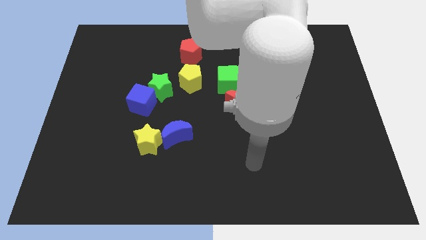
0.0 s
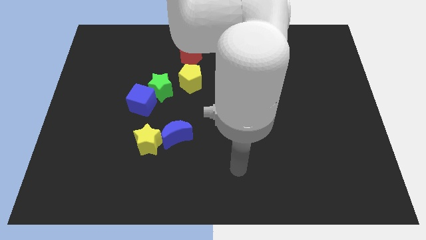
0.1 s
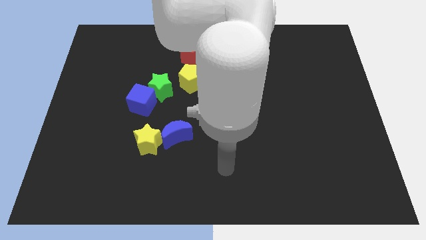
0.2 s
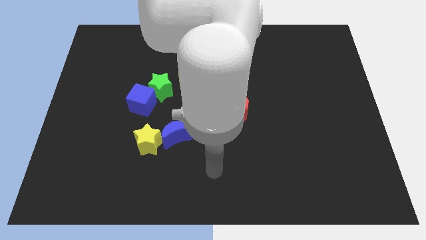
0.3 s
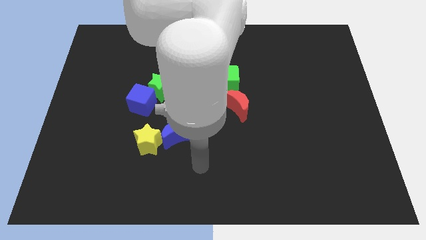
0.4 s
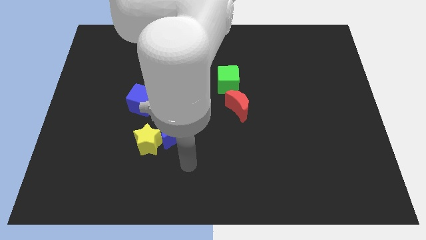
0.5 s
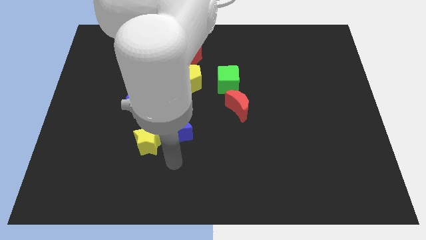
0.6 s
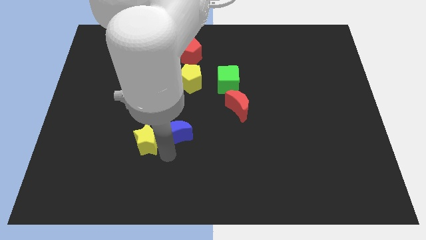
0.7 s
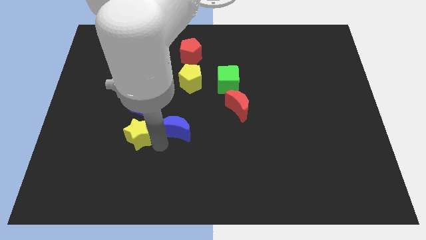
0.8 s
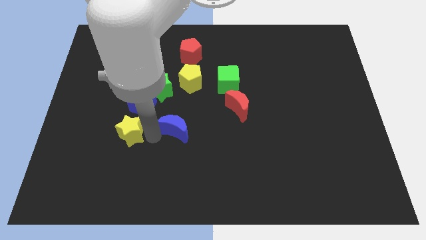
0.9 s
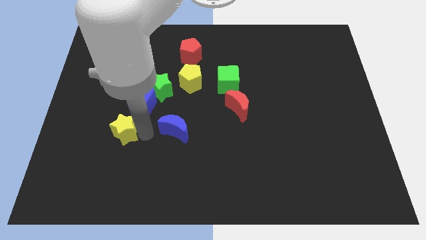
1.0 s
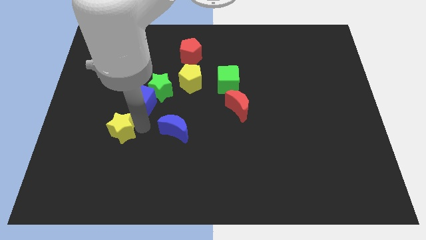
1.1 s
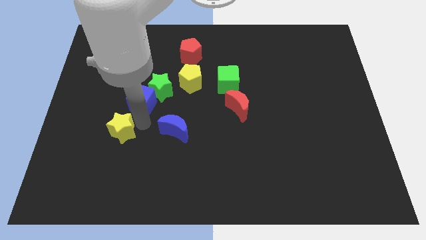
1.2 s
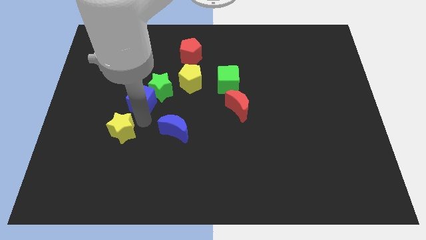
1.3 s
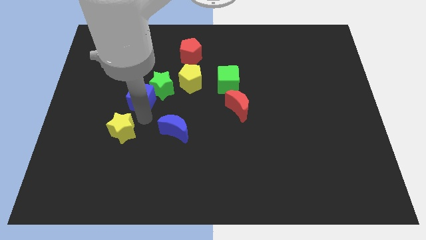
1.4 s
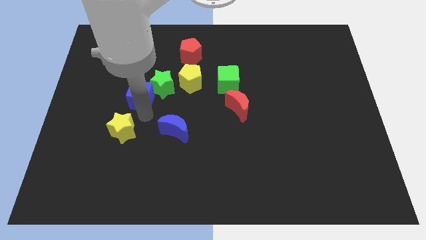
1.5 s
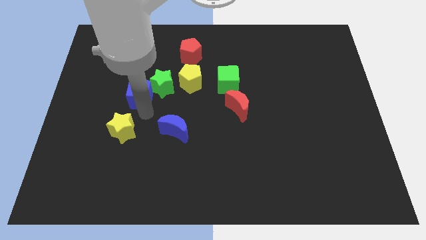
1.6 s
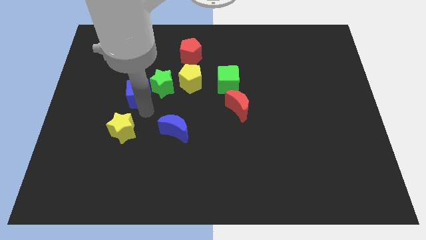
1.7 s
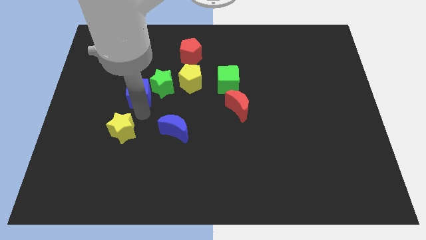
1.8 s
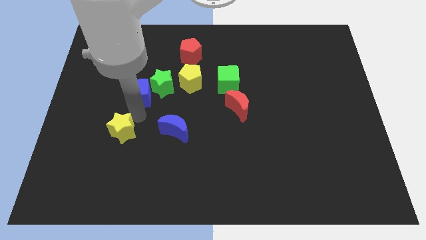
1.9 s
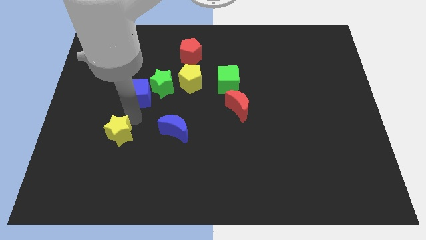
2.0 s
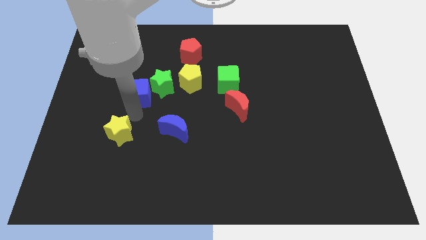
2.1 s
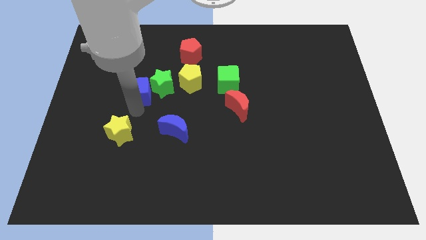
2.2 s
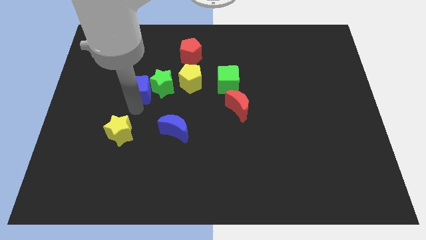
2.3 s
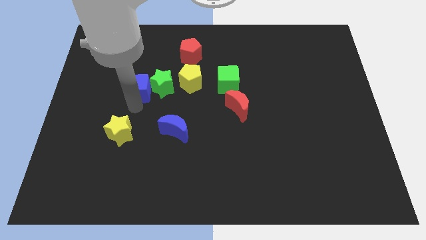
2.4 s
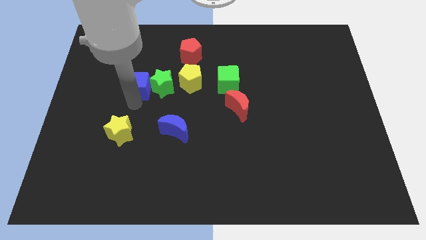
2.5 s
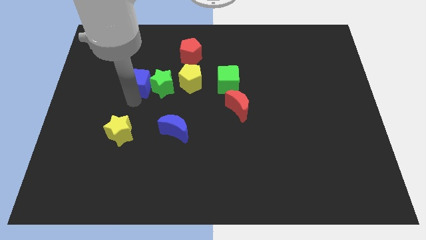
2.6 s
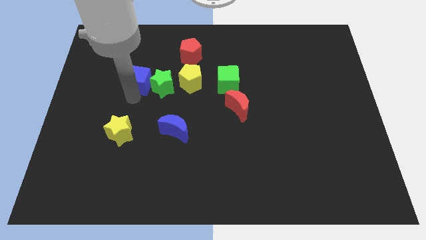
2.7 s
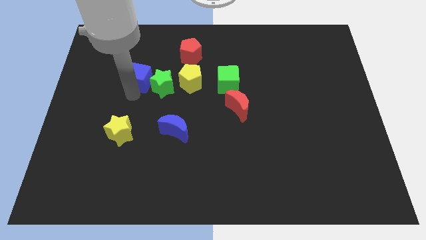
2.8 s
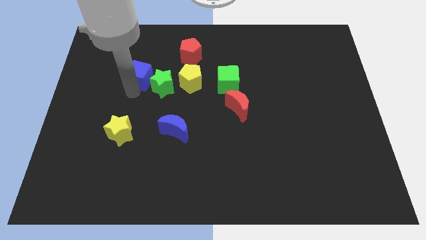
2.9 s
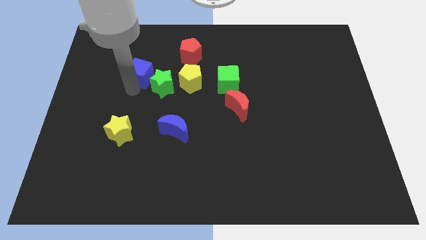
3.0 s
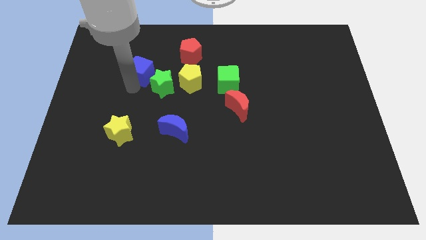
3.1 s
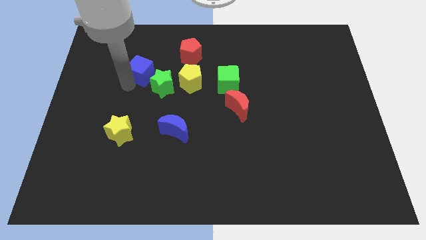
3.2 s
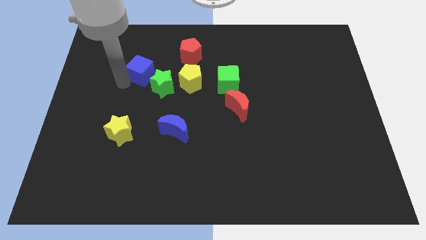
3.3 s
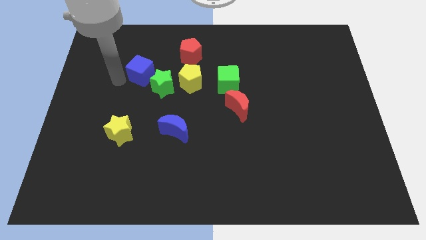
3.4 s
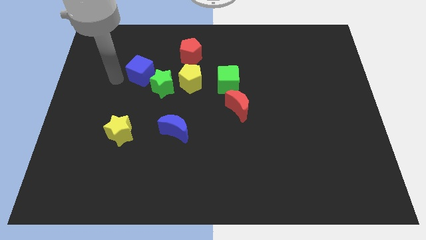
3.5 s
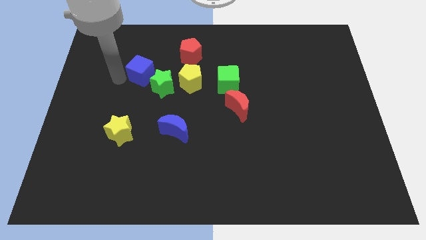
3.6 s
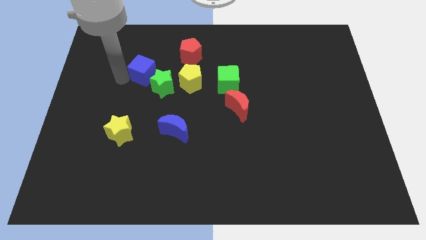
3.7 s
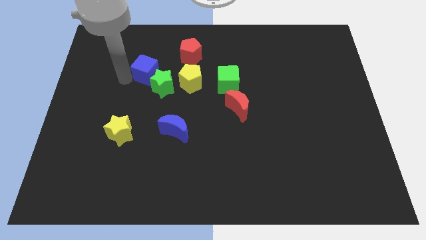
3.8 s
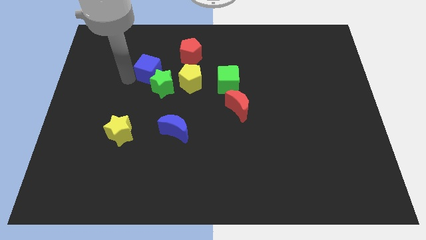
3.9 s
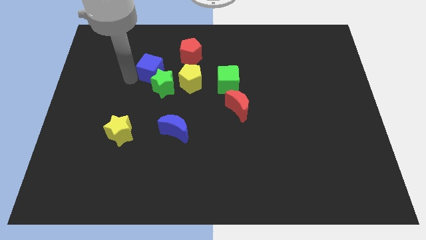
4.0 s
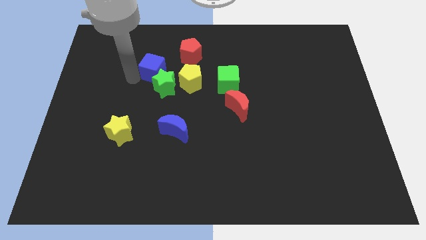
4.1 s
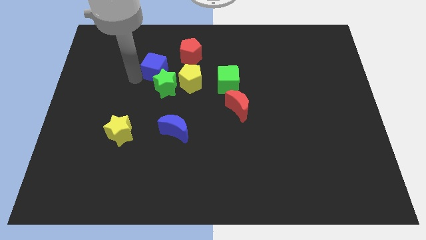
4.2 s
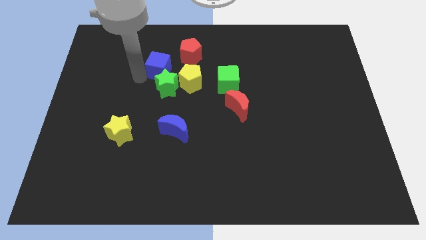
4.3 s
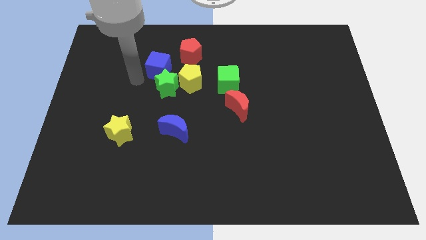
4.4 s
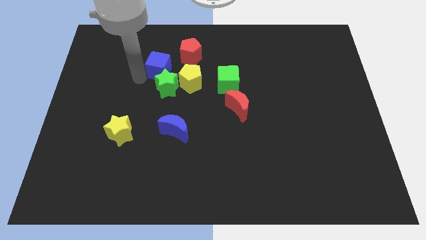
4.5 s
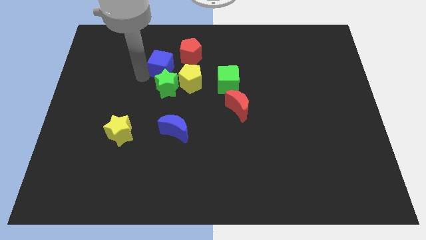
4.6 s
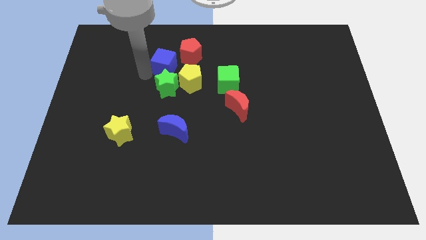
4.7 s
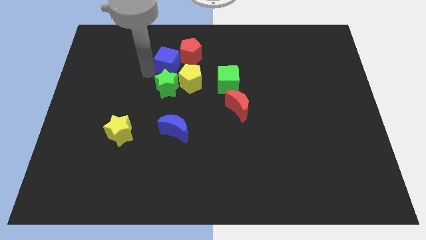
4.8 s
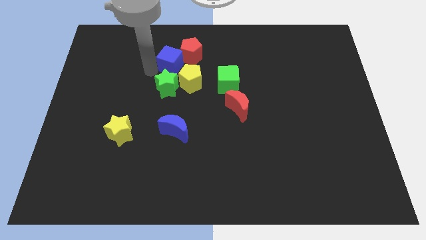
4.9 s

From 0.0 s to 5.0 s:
push the blue cube next to the red pentagon

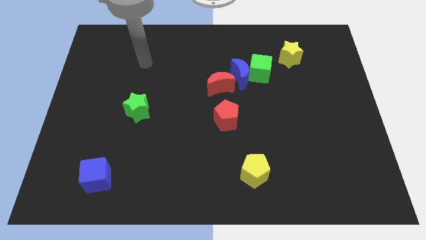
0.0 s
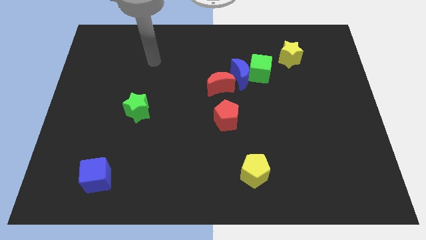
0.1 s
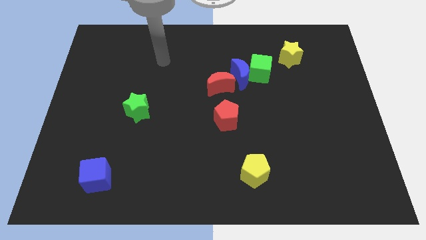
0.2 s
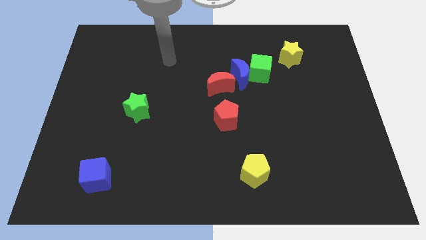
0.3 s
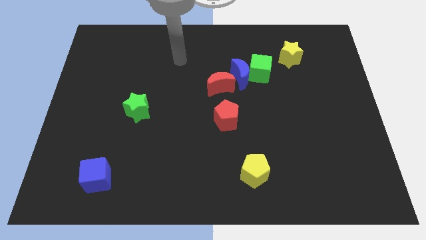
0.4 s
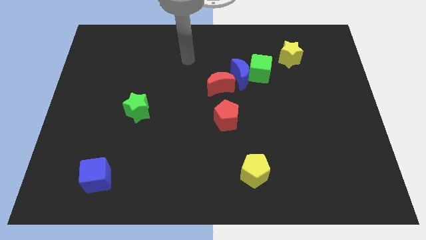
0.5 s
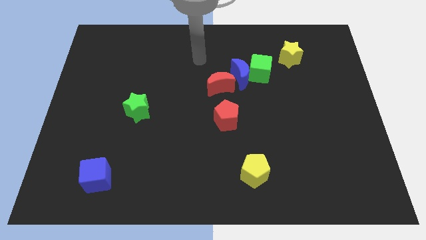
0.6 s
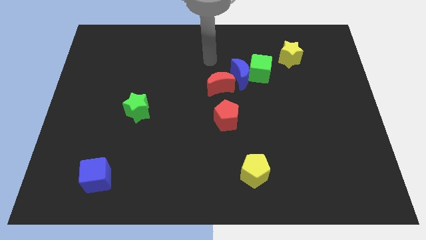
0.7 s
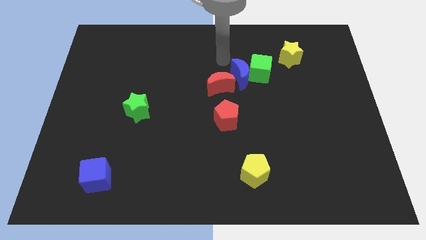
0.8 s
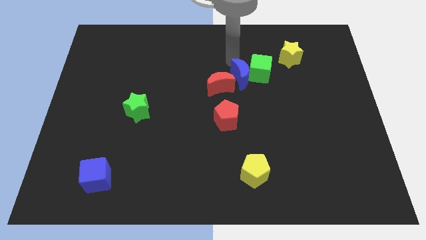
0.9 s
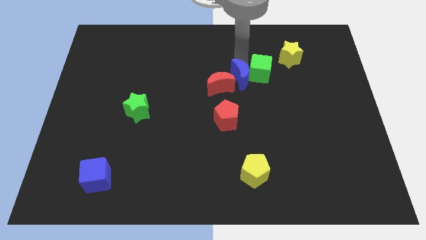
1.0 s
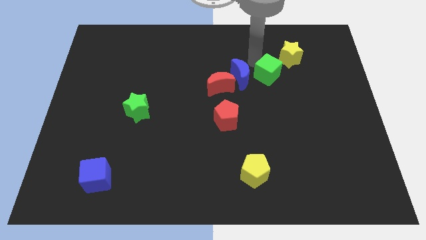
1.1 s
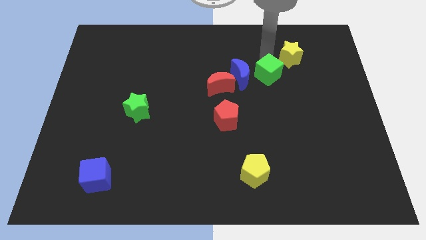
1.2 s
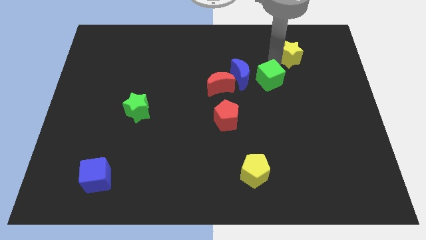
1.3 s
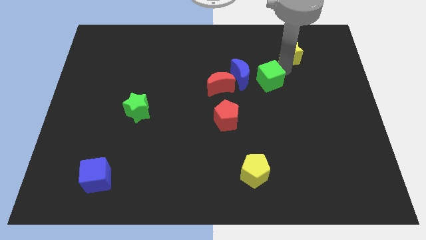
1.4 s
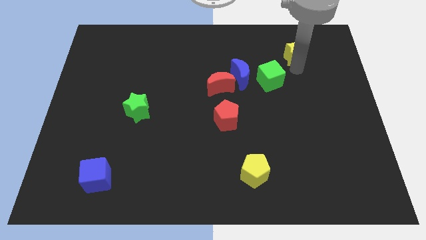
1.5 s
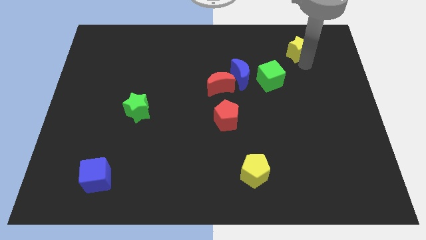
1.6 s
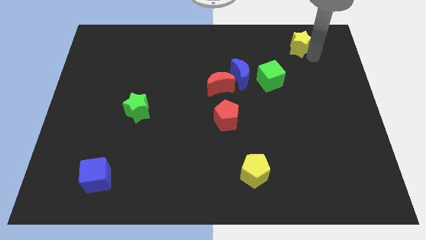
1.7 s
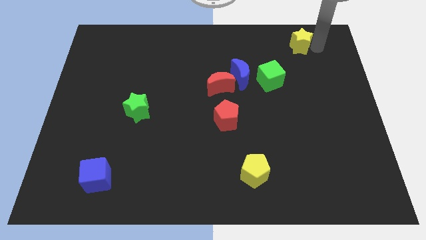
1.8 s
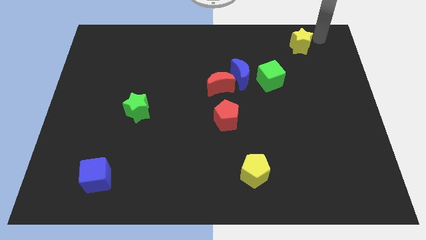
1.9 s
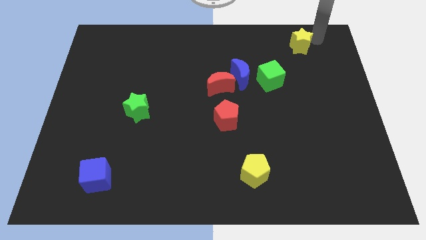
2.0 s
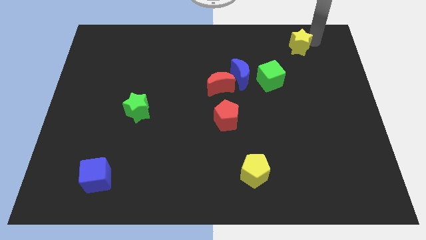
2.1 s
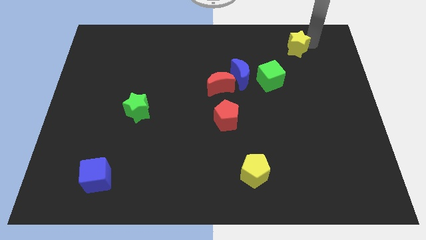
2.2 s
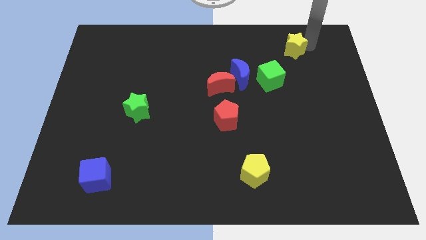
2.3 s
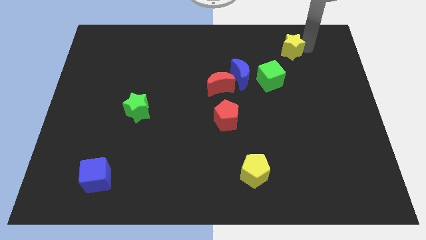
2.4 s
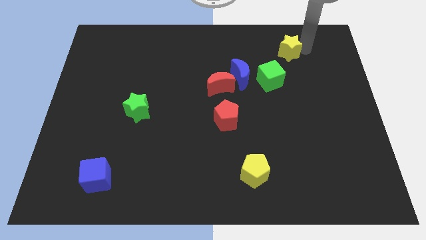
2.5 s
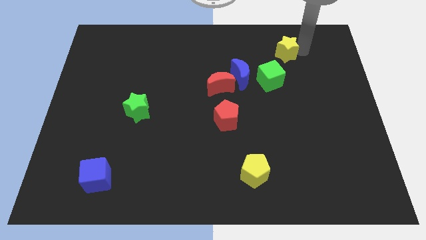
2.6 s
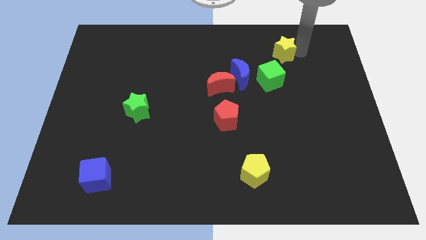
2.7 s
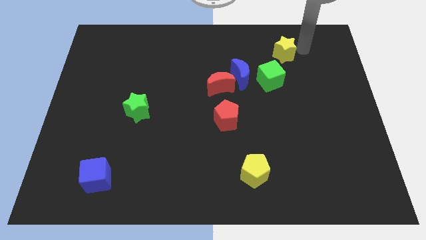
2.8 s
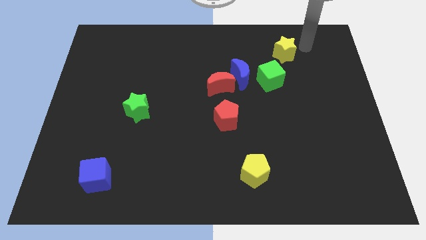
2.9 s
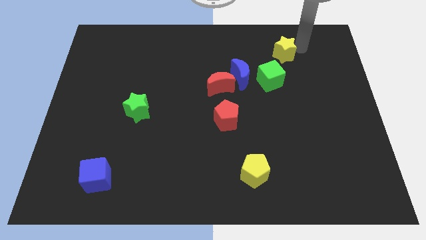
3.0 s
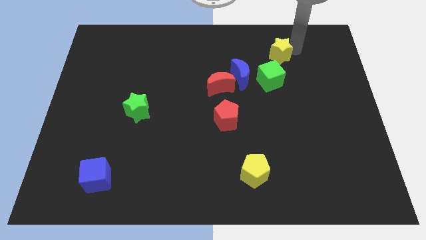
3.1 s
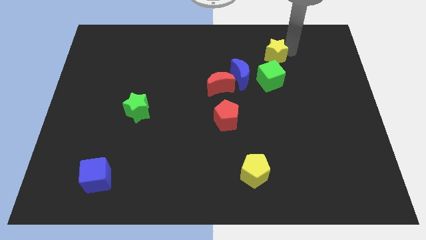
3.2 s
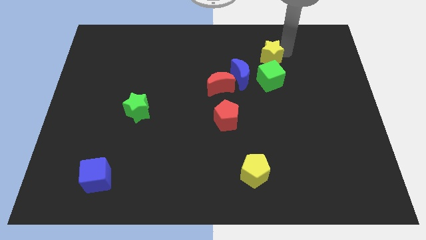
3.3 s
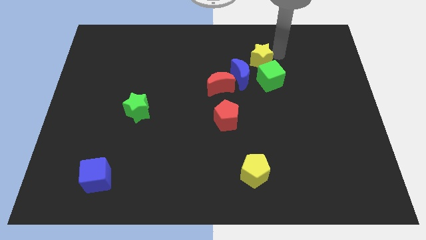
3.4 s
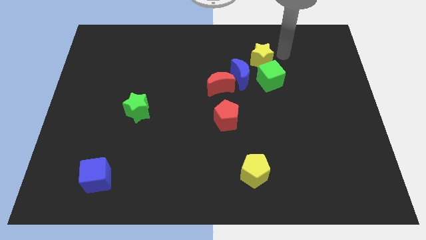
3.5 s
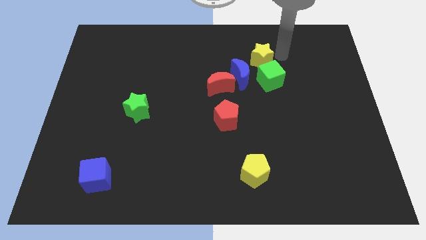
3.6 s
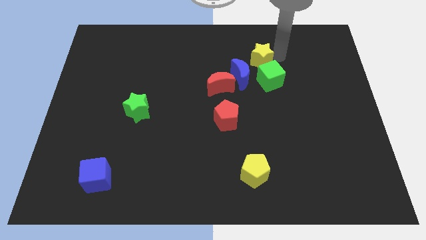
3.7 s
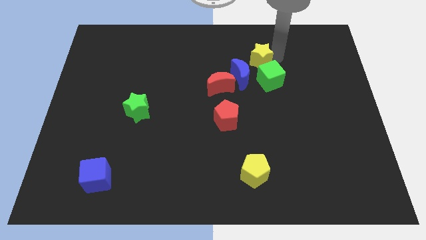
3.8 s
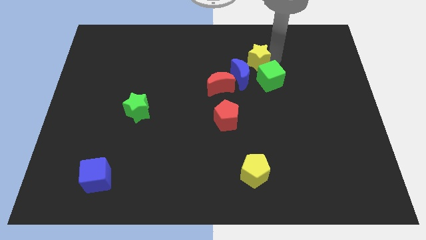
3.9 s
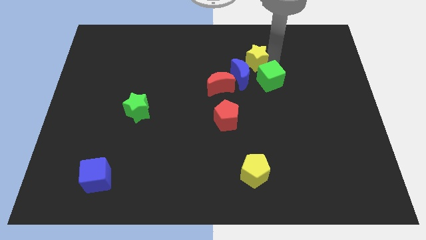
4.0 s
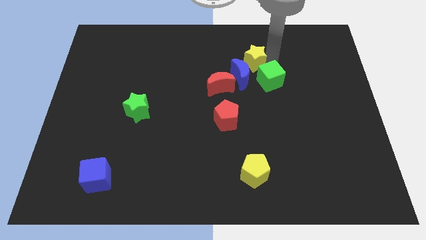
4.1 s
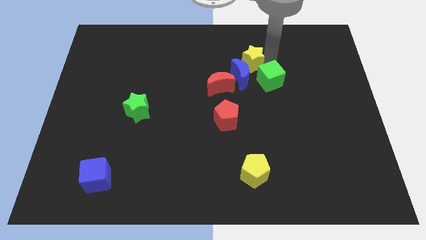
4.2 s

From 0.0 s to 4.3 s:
put the yellow star close to the blue moon
